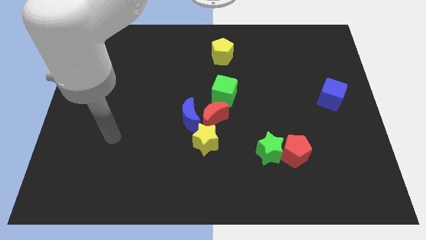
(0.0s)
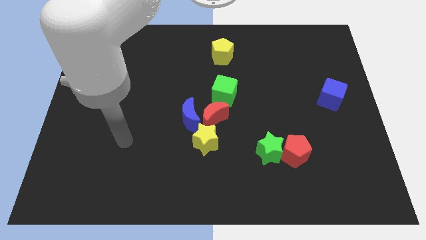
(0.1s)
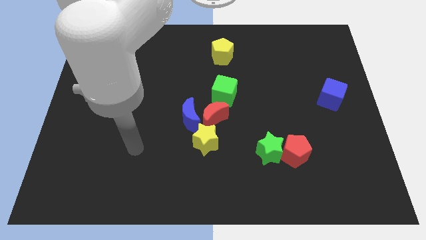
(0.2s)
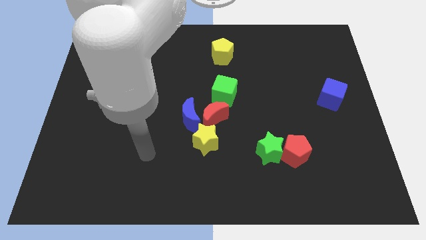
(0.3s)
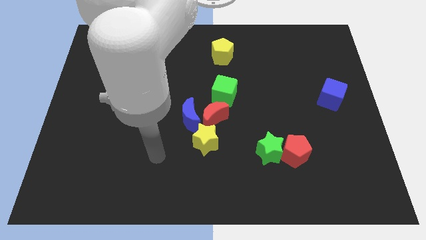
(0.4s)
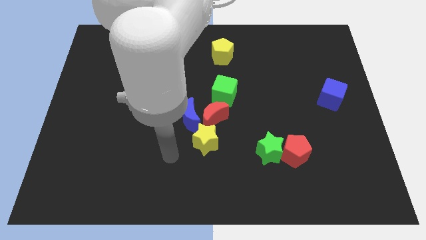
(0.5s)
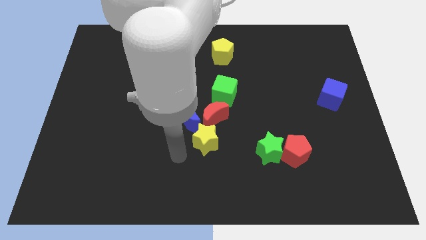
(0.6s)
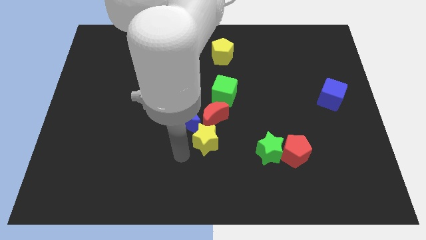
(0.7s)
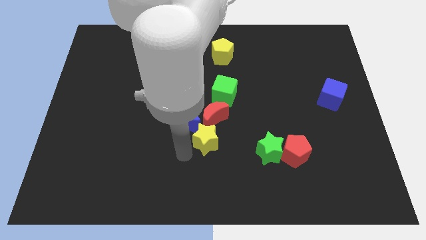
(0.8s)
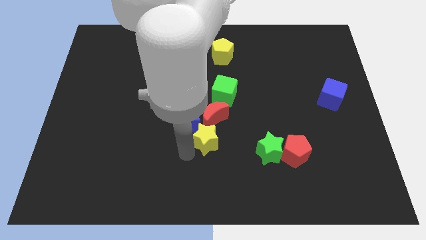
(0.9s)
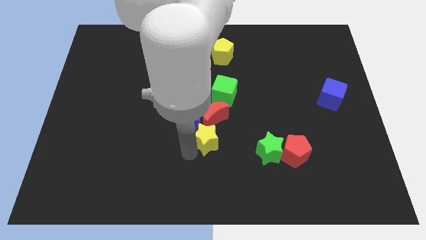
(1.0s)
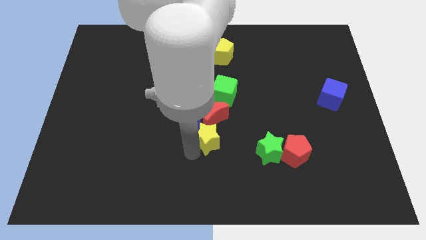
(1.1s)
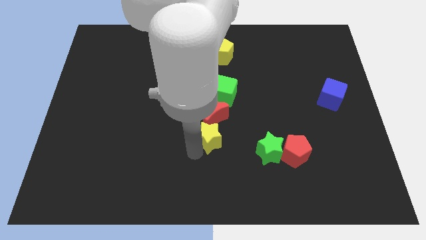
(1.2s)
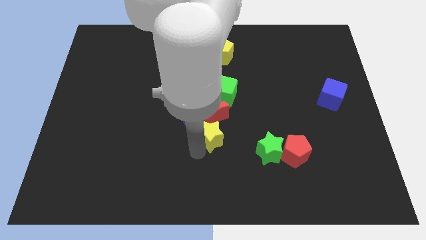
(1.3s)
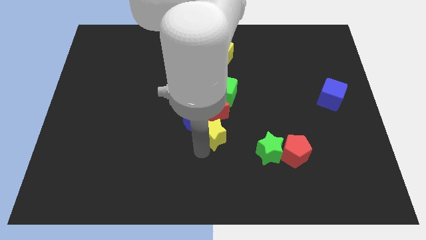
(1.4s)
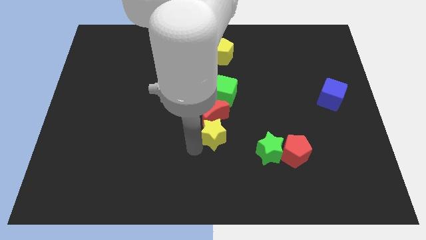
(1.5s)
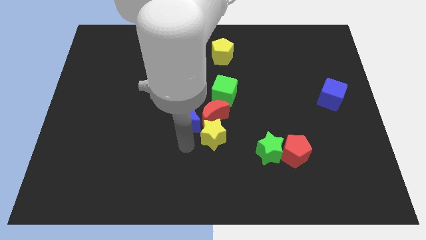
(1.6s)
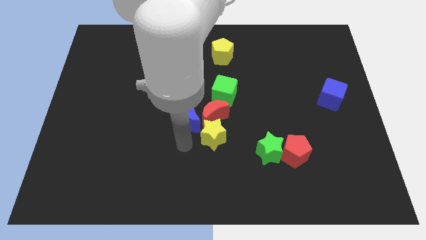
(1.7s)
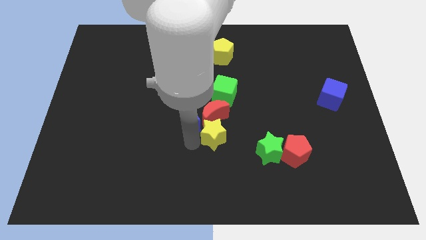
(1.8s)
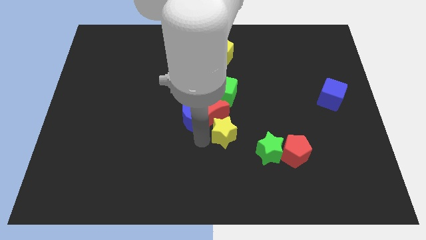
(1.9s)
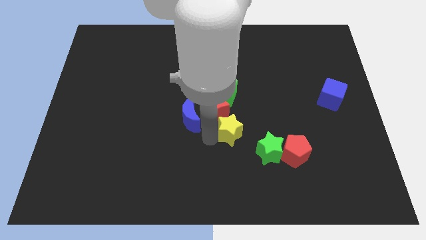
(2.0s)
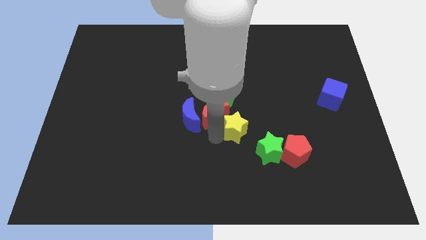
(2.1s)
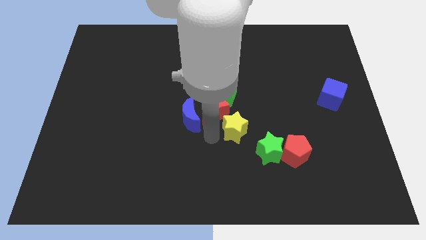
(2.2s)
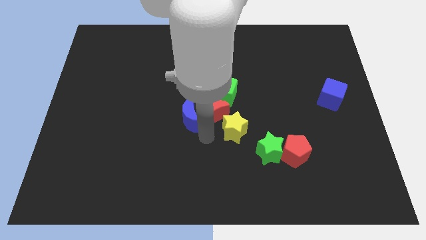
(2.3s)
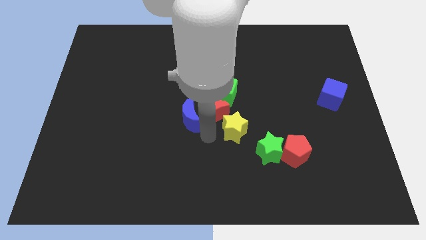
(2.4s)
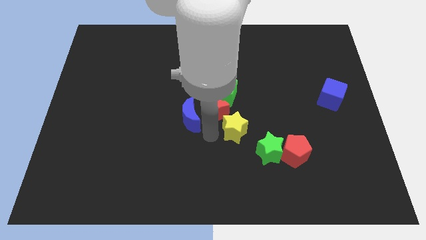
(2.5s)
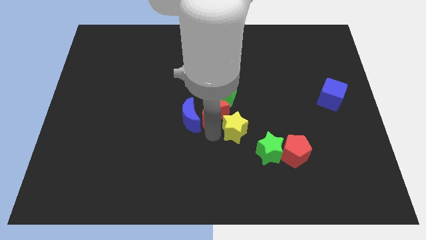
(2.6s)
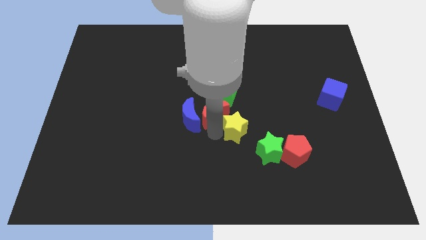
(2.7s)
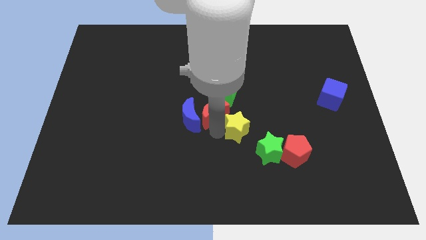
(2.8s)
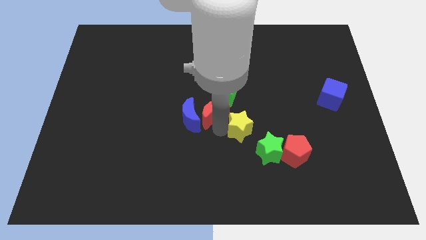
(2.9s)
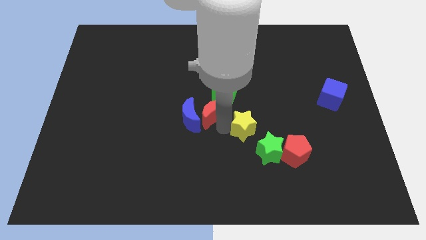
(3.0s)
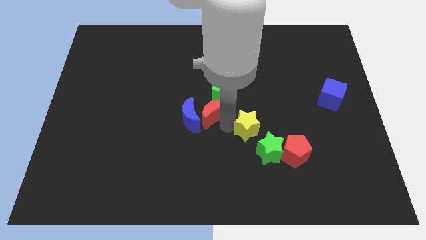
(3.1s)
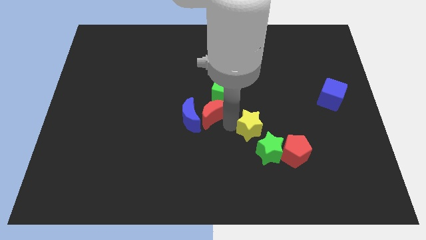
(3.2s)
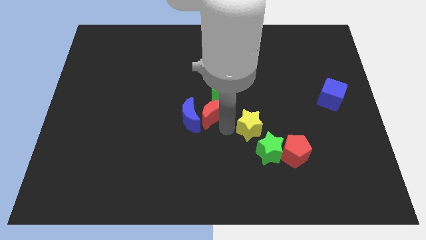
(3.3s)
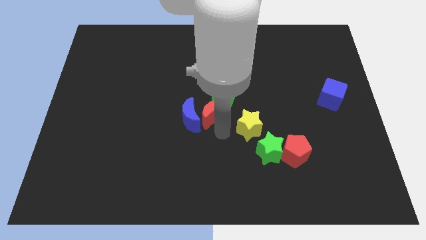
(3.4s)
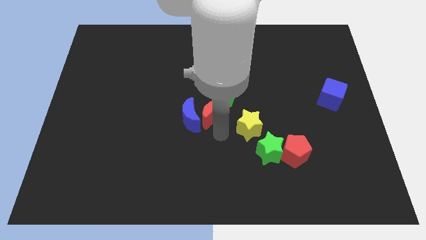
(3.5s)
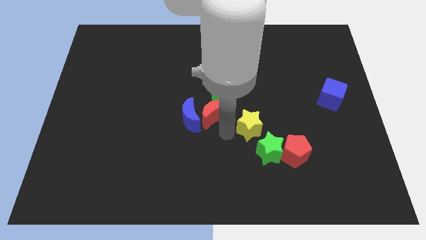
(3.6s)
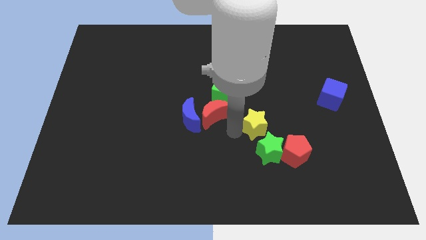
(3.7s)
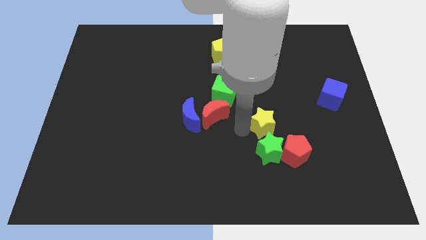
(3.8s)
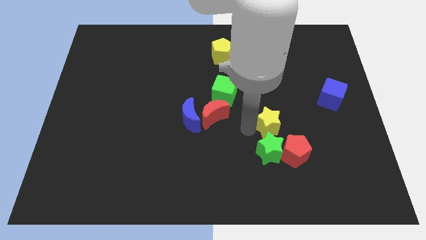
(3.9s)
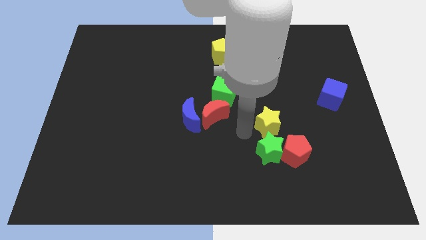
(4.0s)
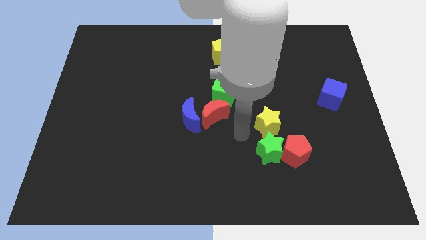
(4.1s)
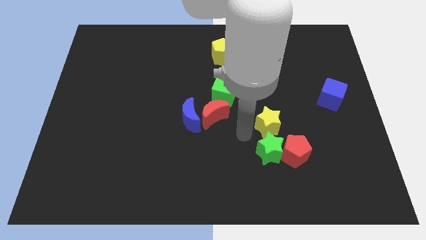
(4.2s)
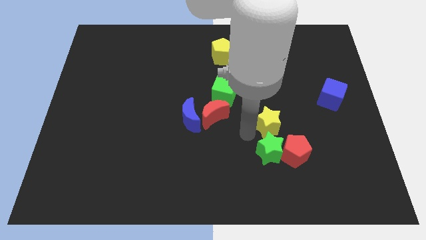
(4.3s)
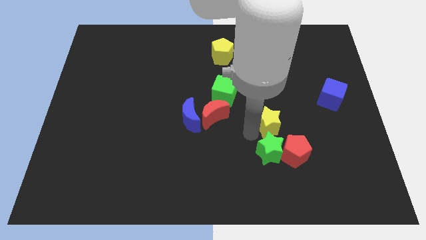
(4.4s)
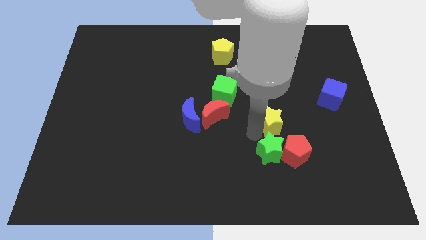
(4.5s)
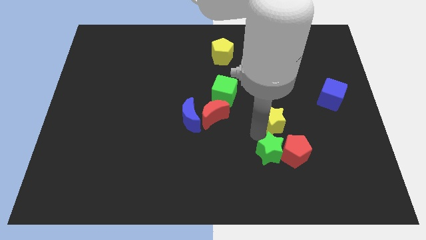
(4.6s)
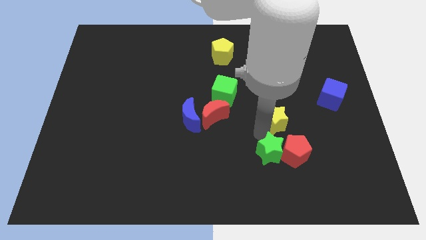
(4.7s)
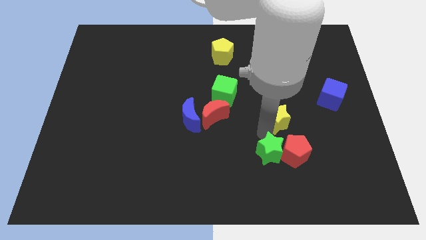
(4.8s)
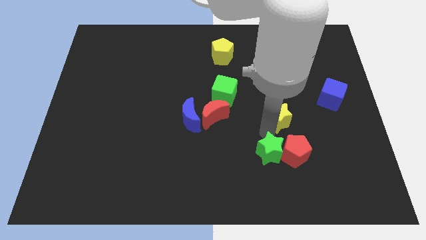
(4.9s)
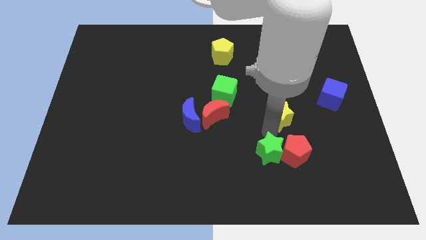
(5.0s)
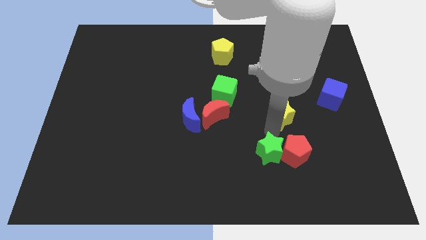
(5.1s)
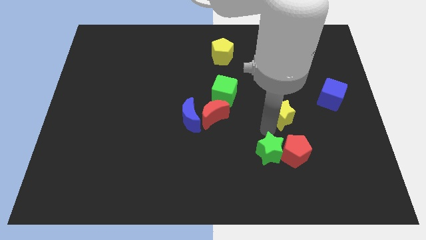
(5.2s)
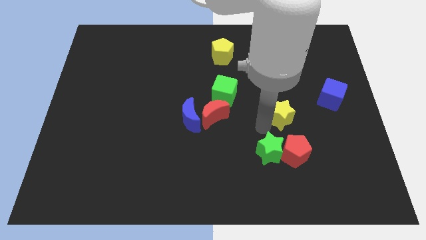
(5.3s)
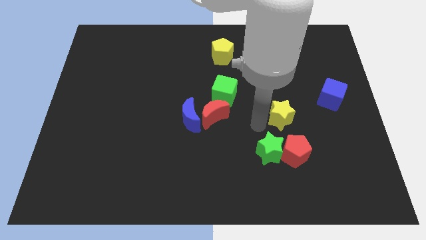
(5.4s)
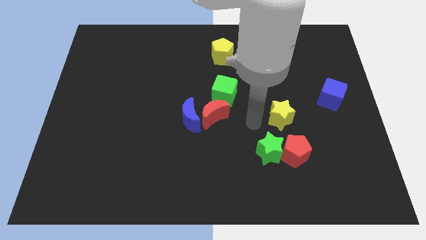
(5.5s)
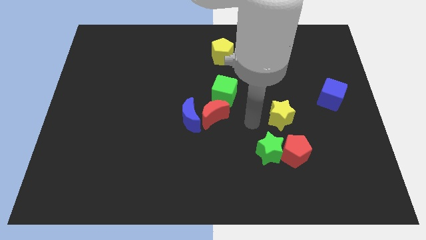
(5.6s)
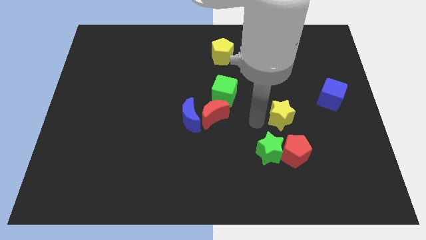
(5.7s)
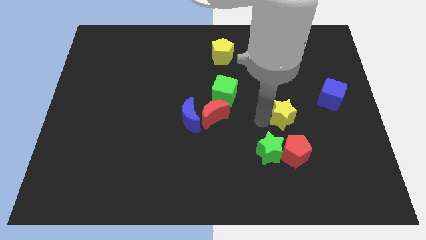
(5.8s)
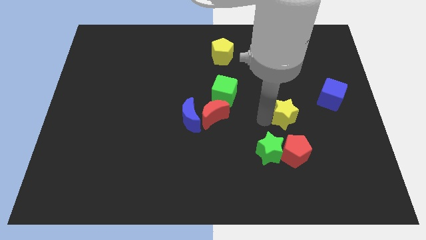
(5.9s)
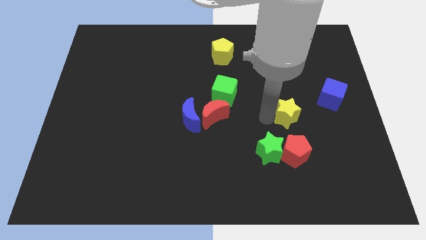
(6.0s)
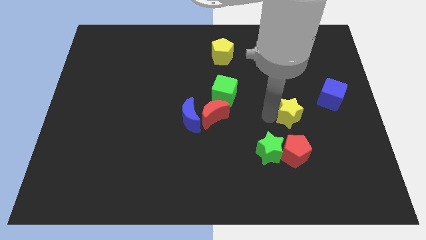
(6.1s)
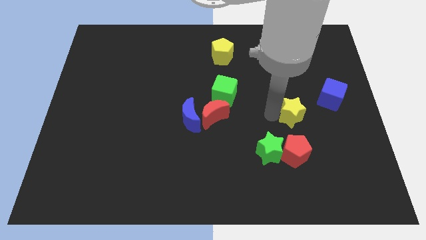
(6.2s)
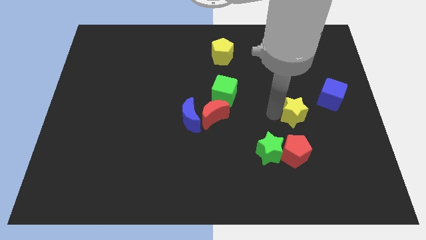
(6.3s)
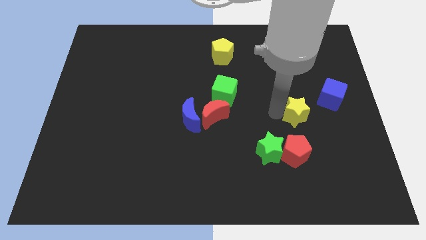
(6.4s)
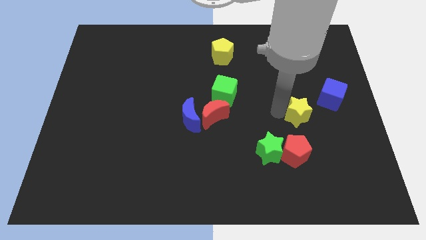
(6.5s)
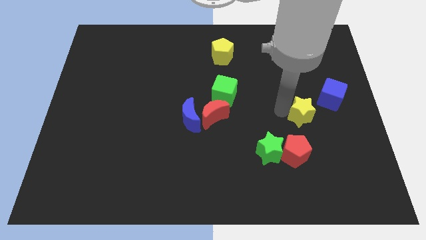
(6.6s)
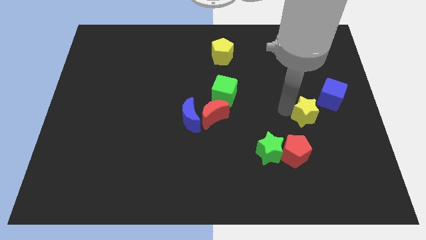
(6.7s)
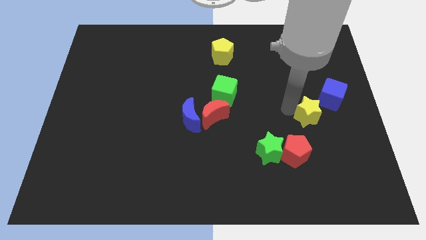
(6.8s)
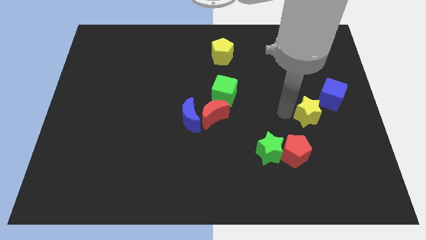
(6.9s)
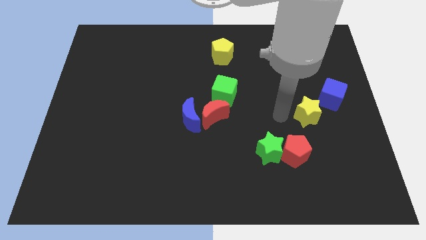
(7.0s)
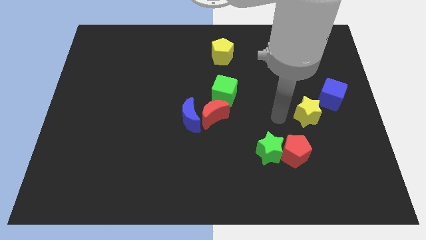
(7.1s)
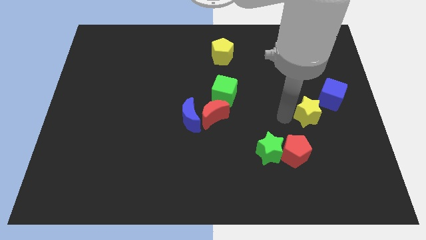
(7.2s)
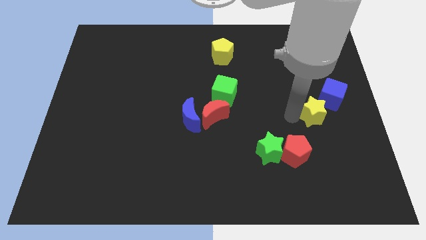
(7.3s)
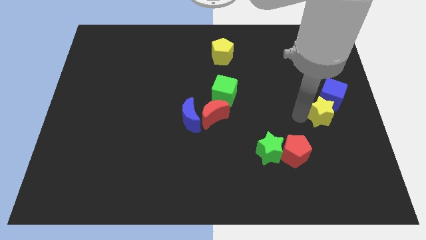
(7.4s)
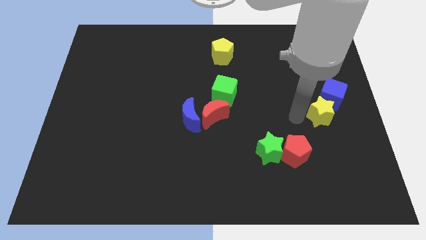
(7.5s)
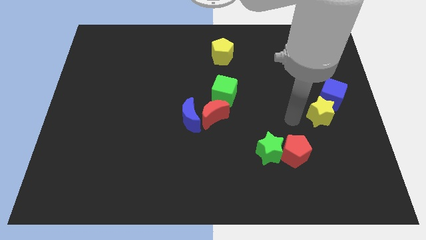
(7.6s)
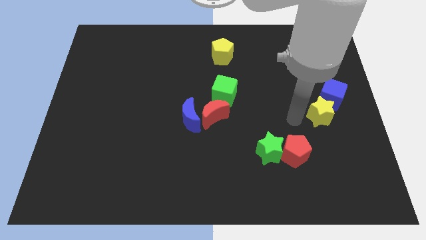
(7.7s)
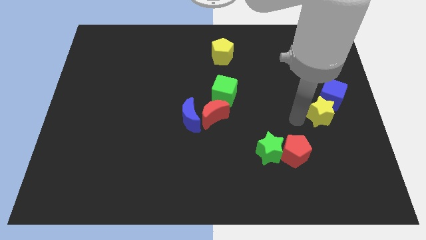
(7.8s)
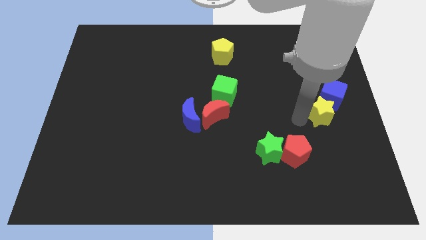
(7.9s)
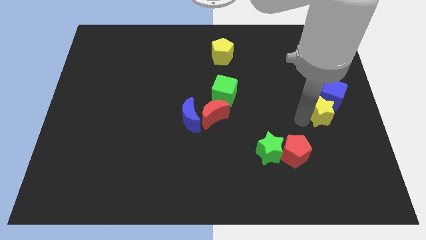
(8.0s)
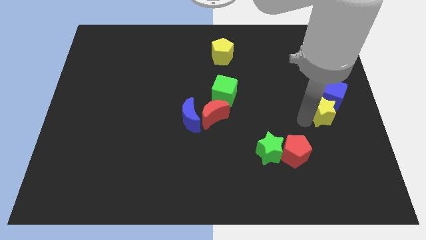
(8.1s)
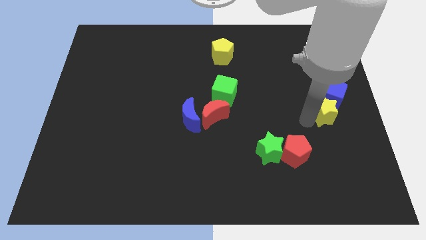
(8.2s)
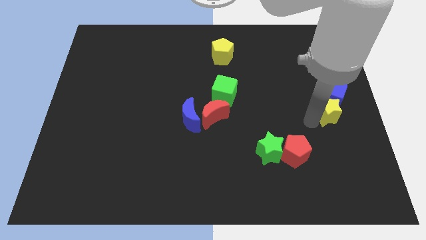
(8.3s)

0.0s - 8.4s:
put the yellow star to the right side of the board
